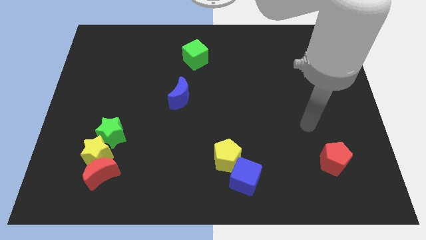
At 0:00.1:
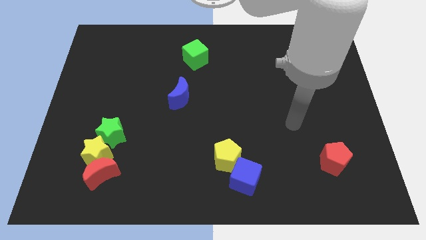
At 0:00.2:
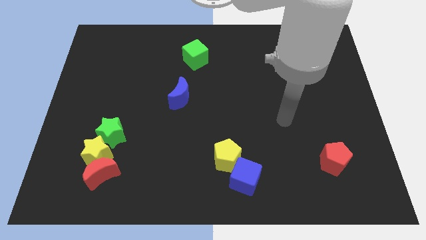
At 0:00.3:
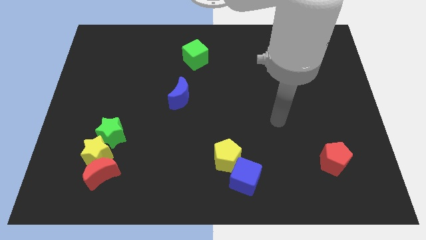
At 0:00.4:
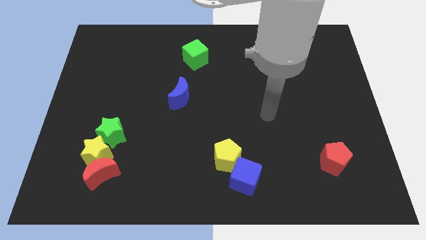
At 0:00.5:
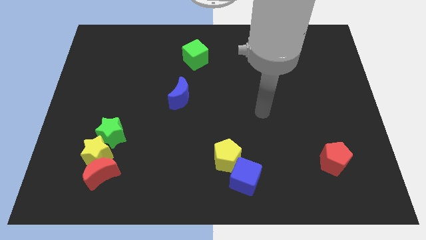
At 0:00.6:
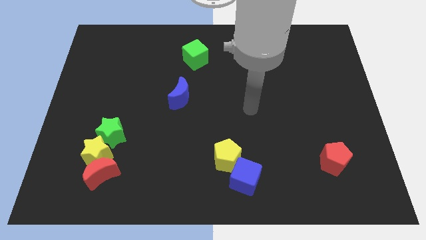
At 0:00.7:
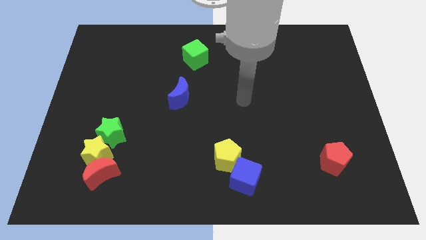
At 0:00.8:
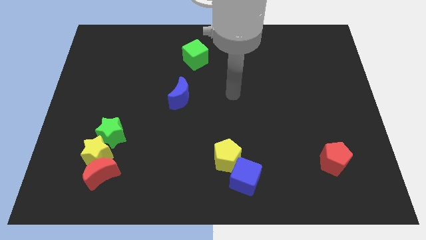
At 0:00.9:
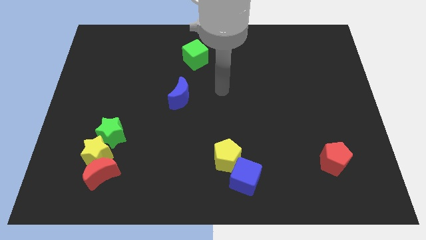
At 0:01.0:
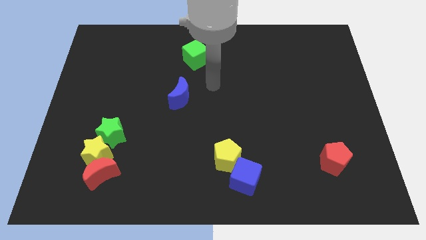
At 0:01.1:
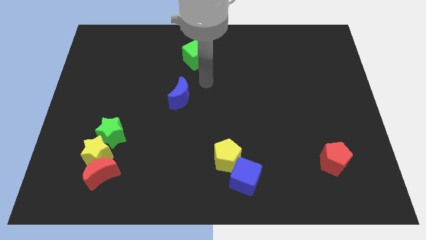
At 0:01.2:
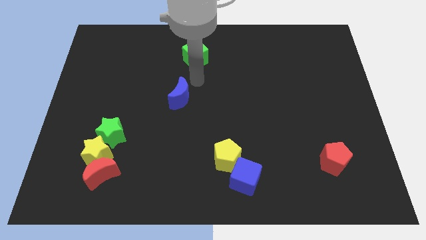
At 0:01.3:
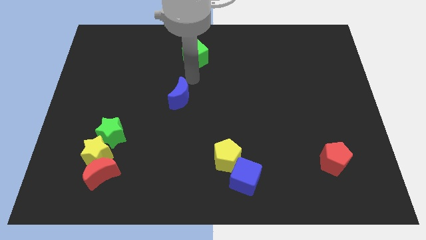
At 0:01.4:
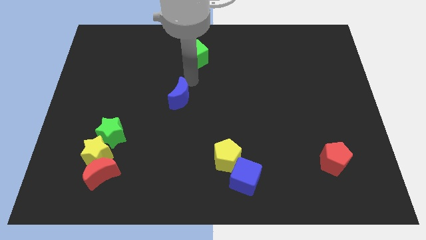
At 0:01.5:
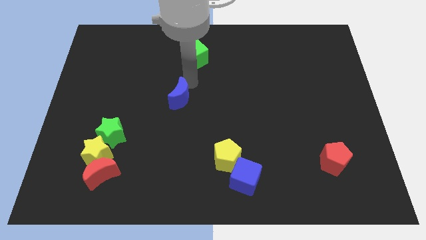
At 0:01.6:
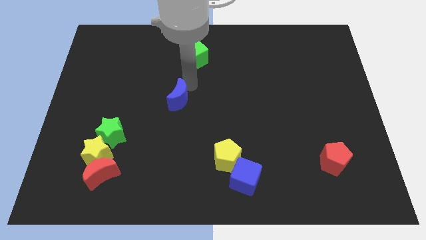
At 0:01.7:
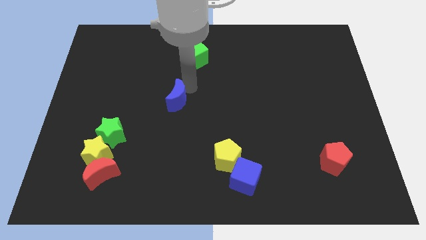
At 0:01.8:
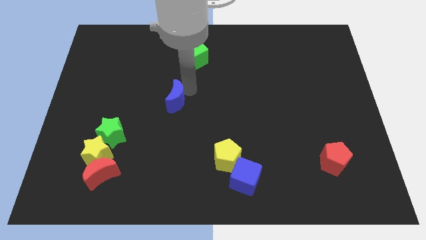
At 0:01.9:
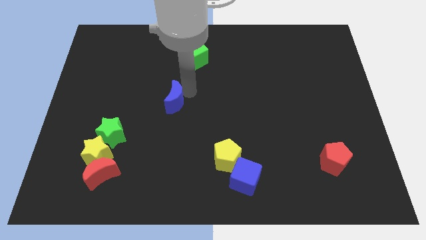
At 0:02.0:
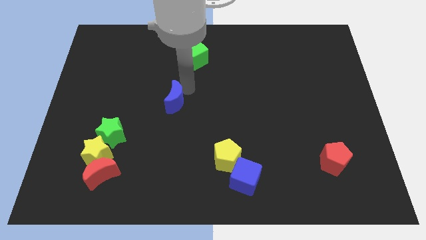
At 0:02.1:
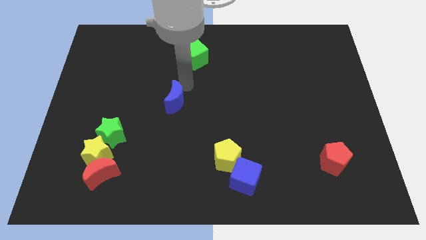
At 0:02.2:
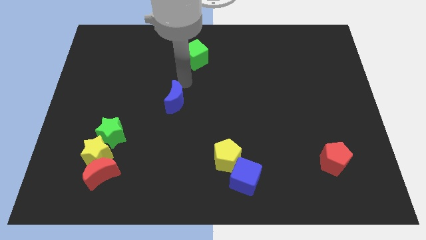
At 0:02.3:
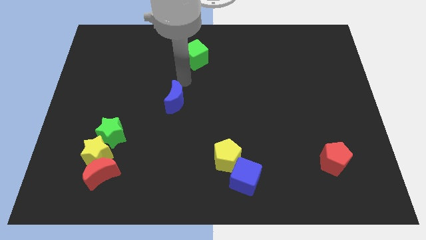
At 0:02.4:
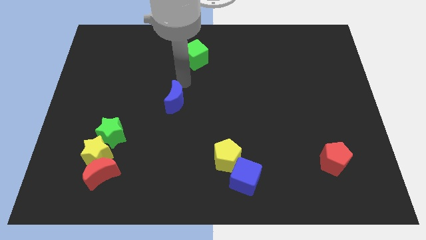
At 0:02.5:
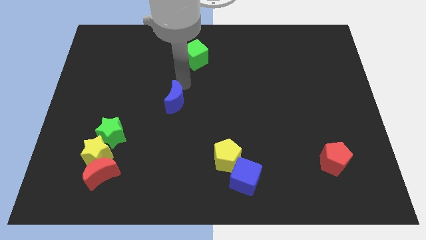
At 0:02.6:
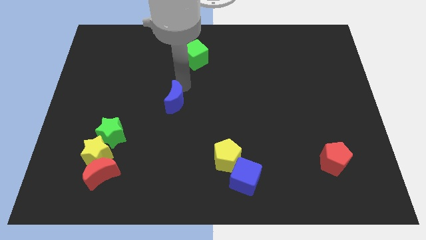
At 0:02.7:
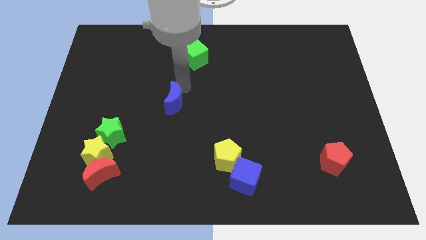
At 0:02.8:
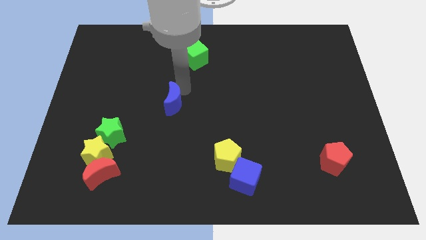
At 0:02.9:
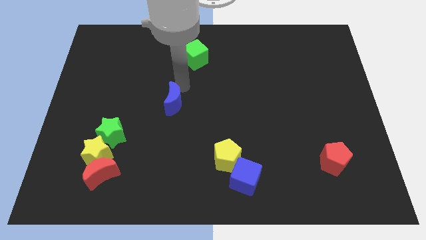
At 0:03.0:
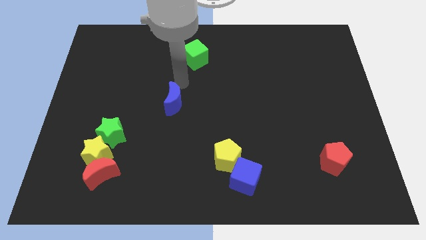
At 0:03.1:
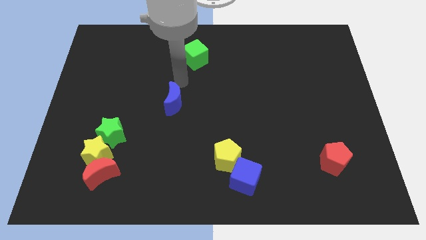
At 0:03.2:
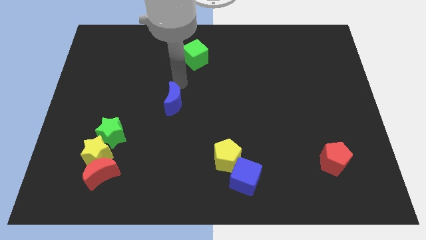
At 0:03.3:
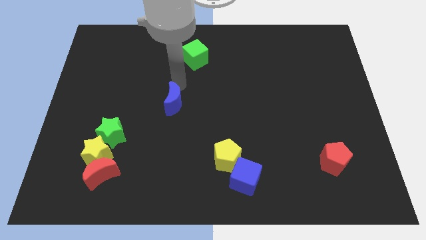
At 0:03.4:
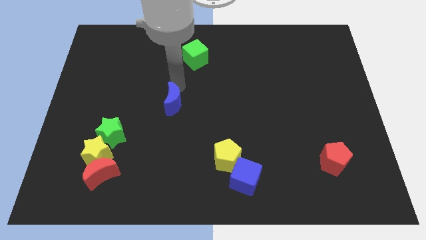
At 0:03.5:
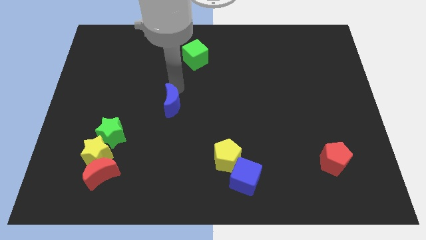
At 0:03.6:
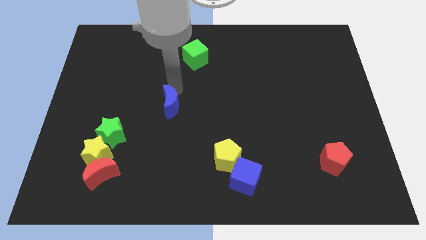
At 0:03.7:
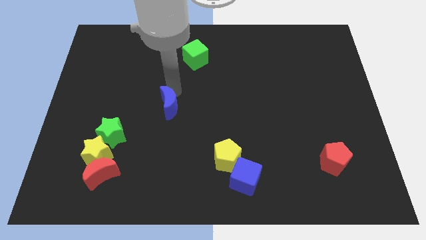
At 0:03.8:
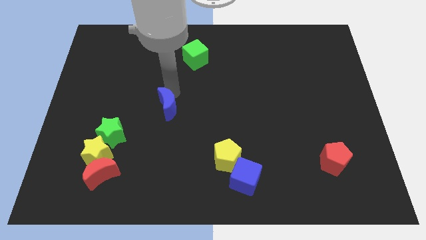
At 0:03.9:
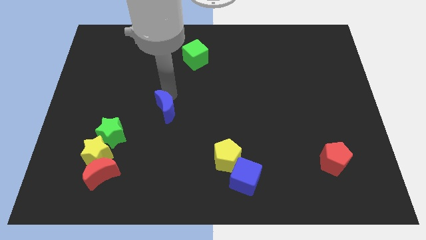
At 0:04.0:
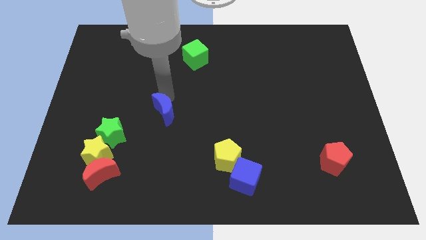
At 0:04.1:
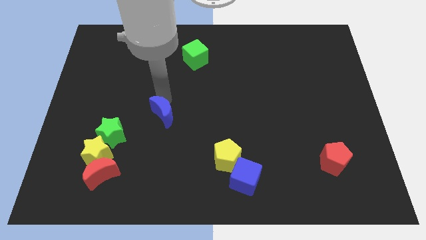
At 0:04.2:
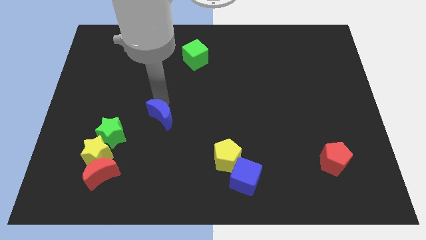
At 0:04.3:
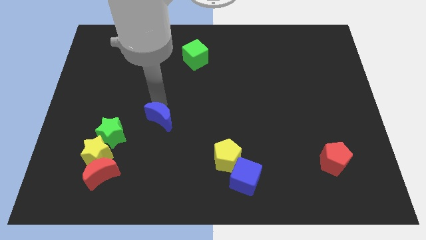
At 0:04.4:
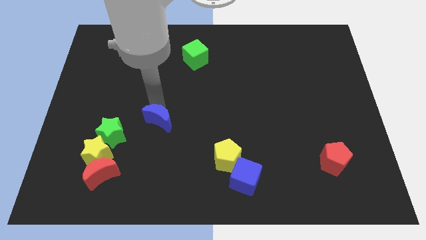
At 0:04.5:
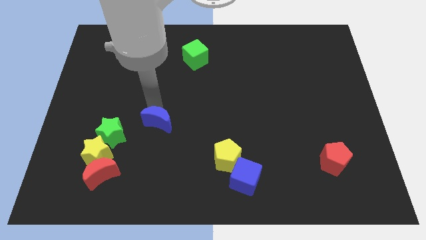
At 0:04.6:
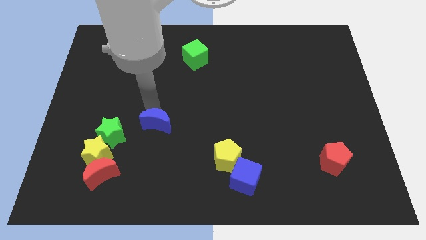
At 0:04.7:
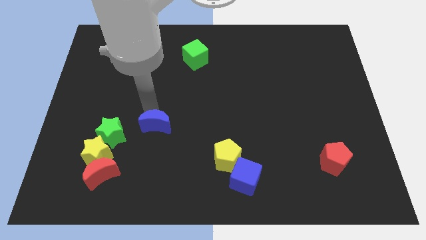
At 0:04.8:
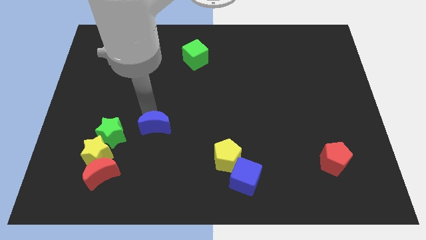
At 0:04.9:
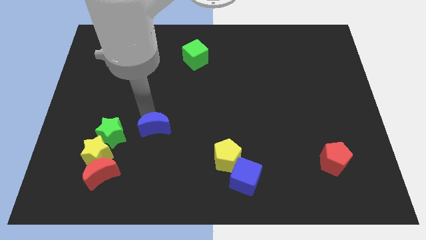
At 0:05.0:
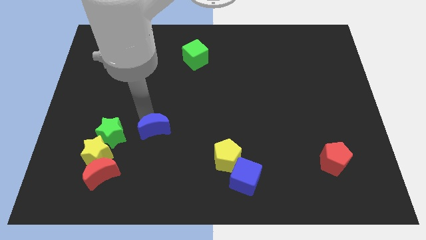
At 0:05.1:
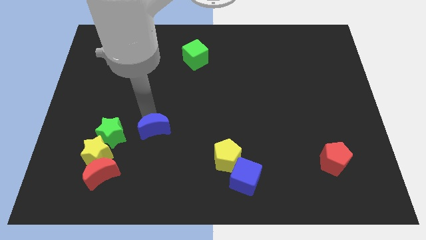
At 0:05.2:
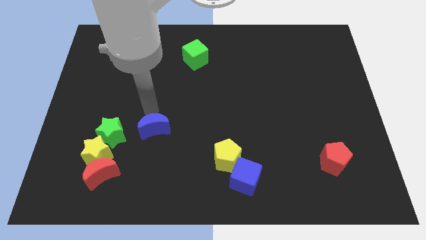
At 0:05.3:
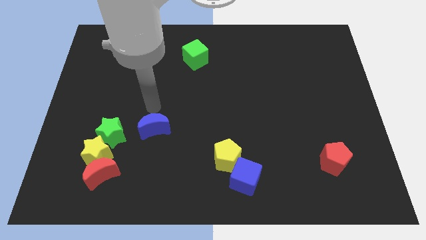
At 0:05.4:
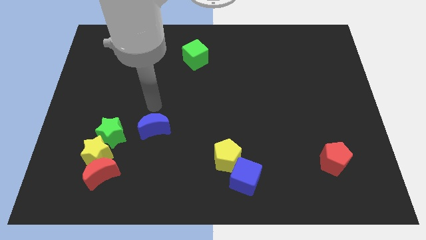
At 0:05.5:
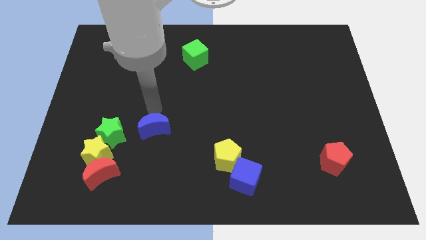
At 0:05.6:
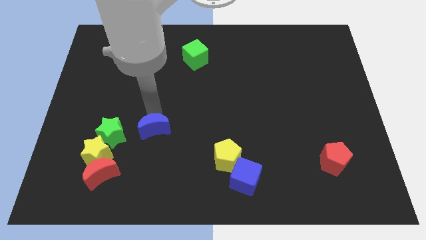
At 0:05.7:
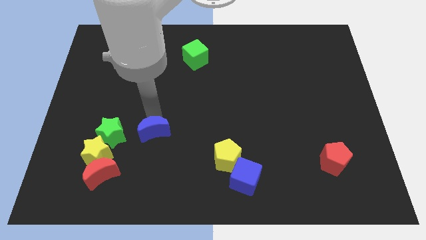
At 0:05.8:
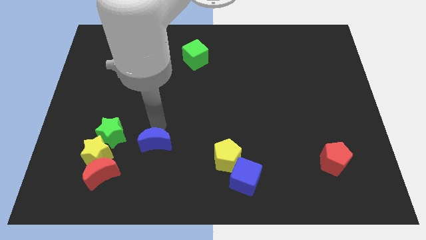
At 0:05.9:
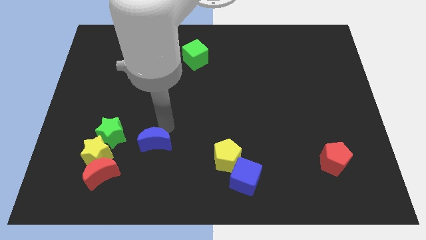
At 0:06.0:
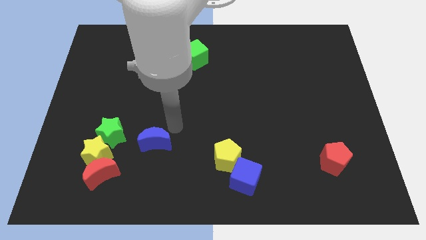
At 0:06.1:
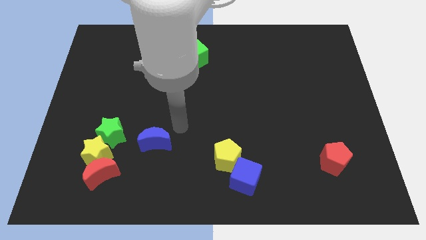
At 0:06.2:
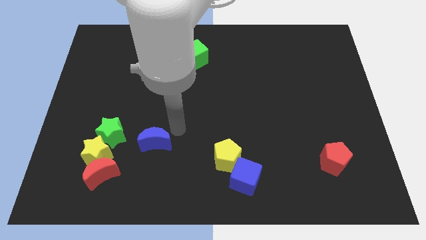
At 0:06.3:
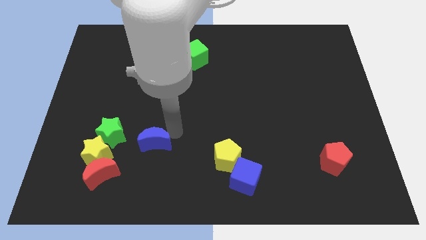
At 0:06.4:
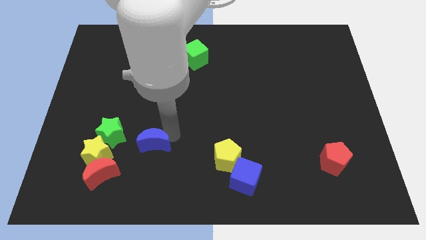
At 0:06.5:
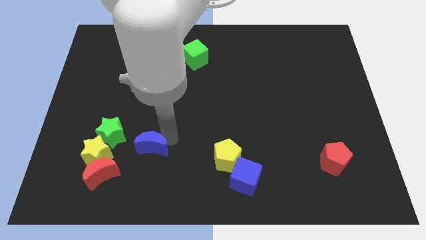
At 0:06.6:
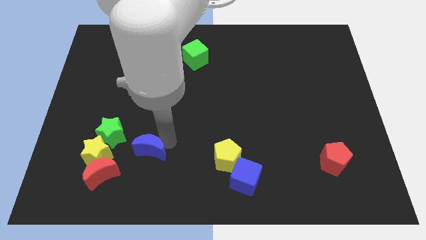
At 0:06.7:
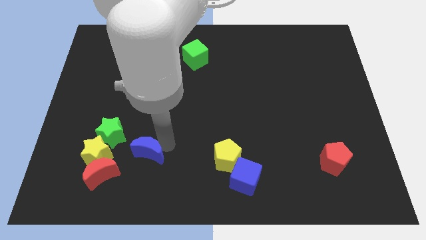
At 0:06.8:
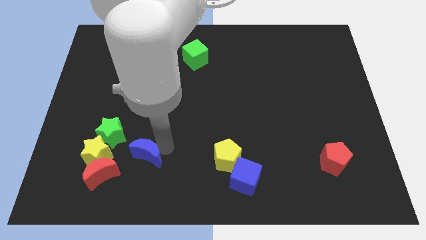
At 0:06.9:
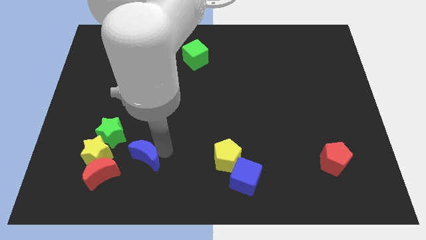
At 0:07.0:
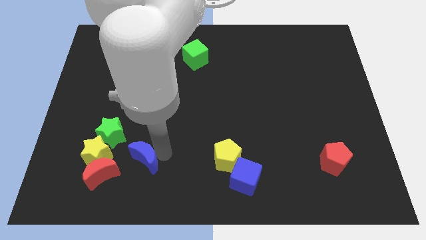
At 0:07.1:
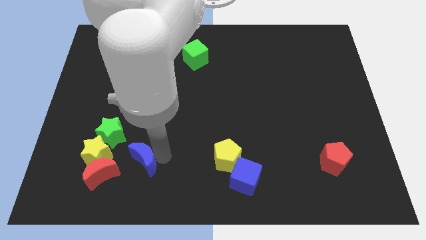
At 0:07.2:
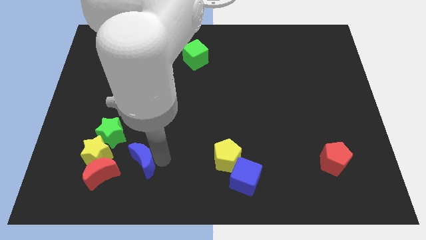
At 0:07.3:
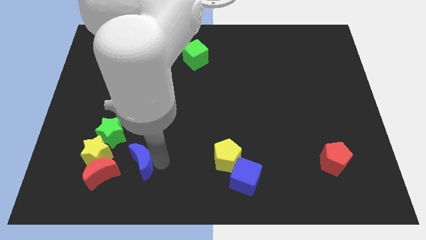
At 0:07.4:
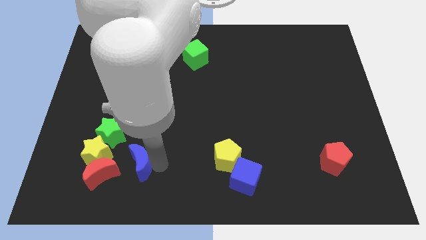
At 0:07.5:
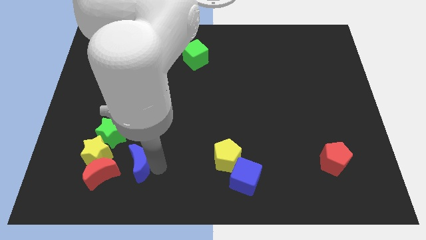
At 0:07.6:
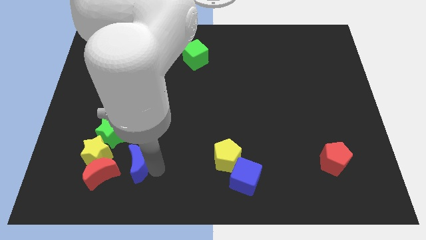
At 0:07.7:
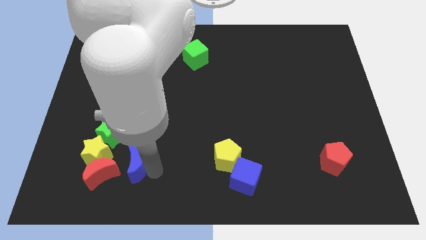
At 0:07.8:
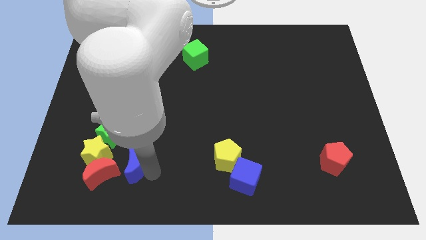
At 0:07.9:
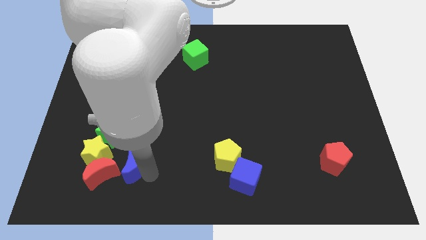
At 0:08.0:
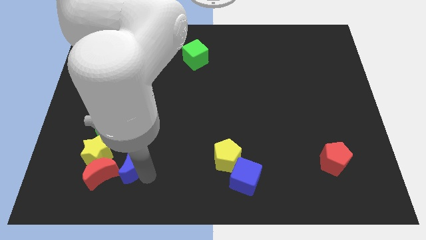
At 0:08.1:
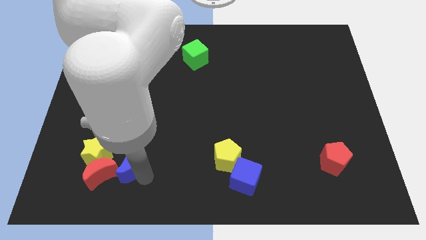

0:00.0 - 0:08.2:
move the blue moon towards the red moon
